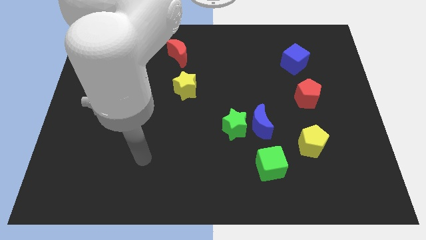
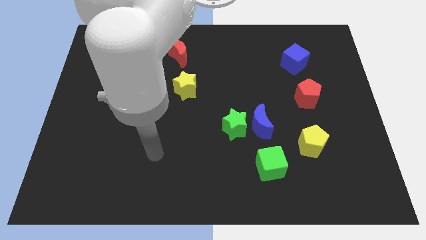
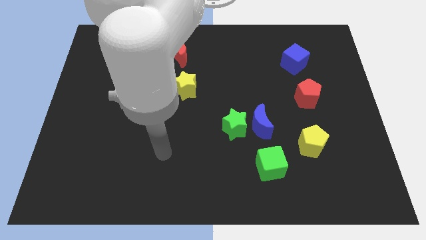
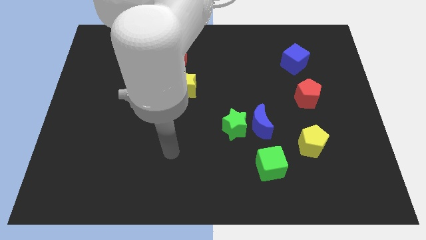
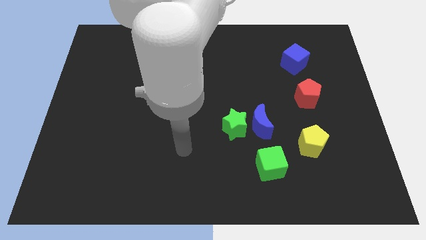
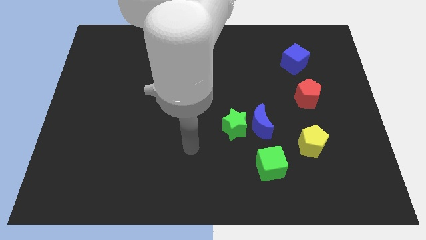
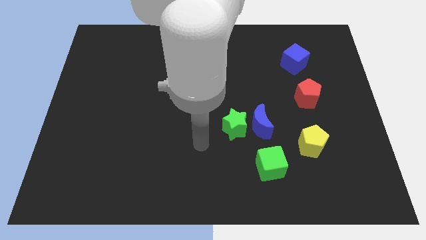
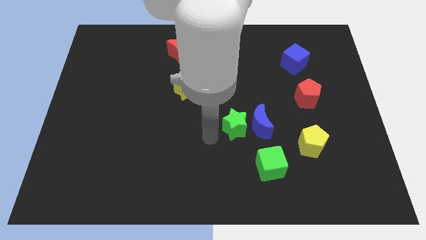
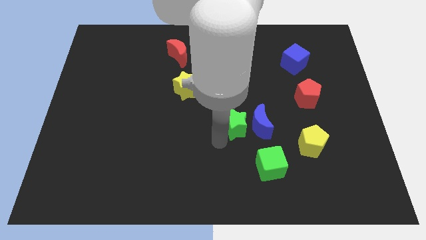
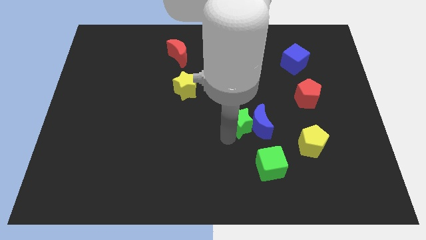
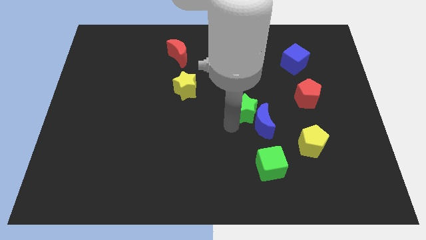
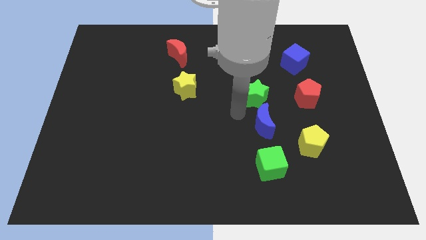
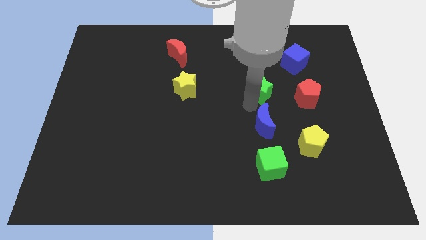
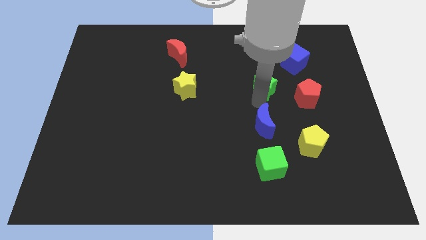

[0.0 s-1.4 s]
pull the blue moon apart from the green star

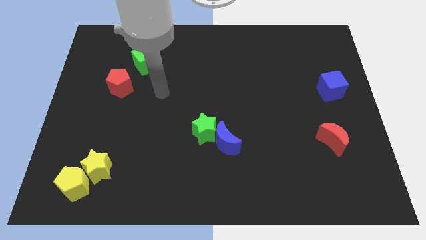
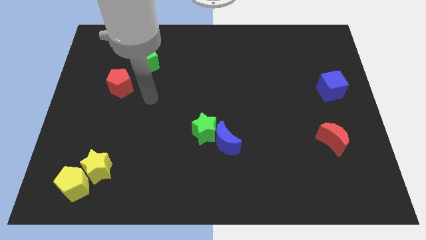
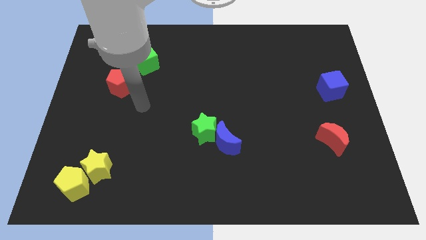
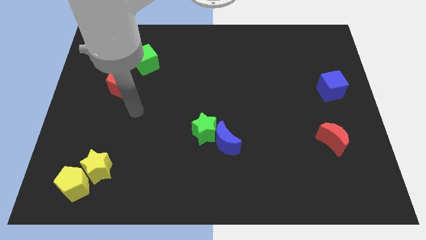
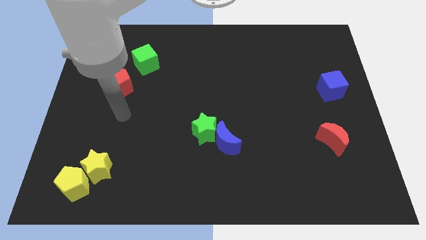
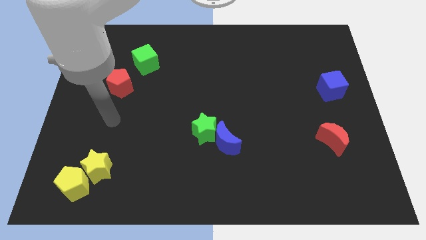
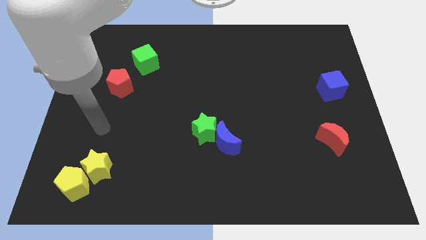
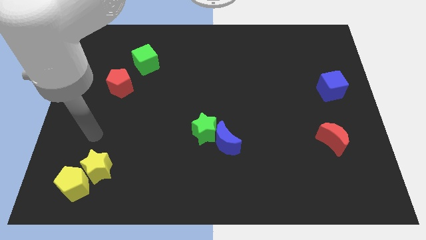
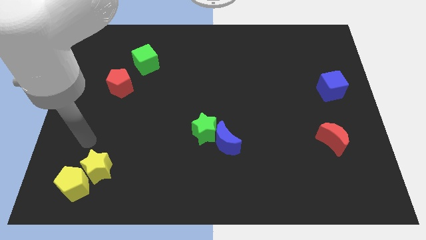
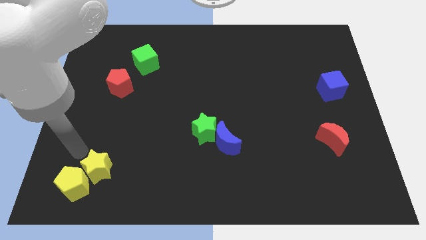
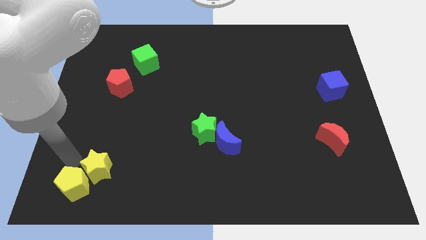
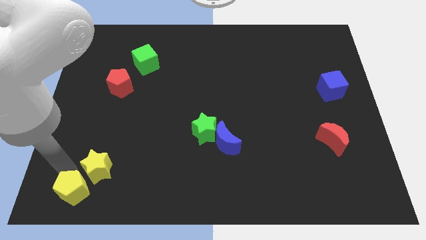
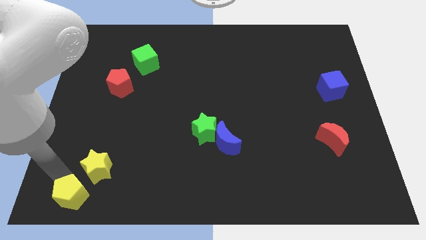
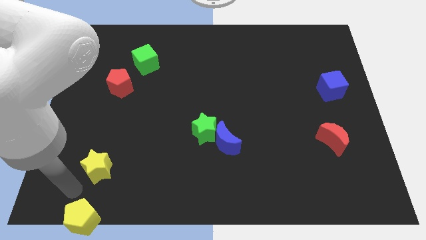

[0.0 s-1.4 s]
separate the yellow star from the yellow pentagon

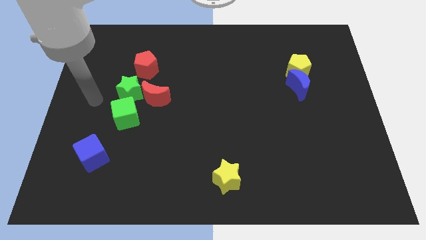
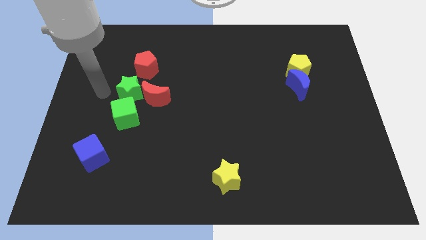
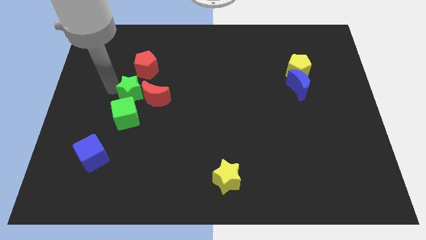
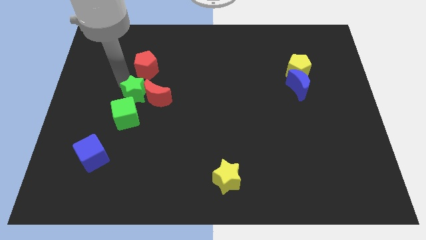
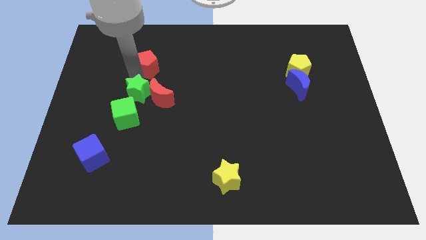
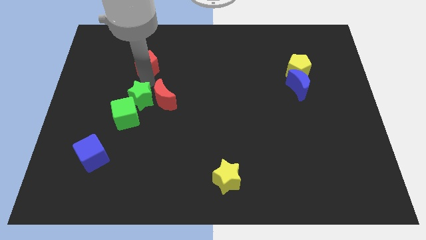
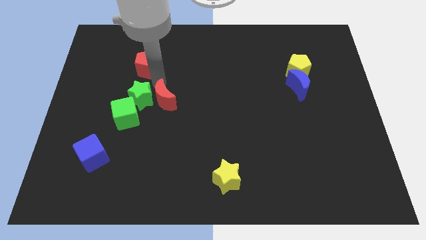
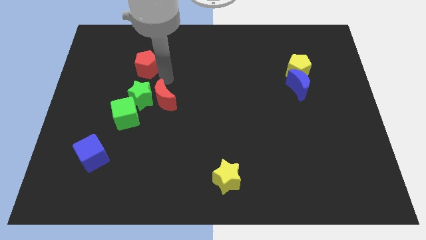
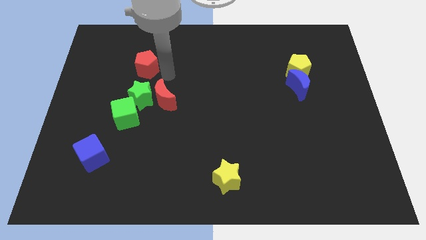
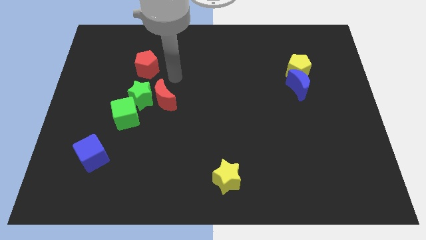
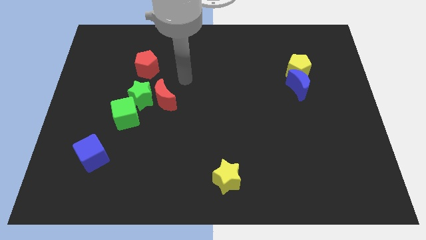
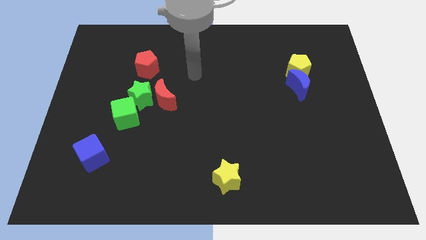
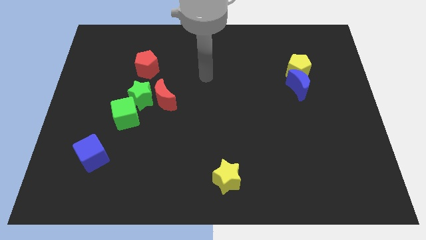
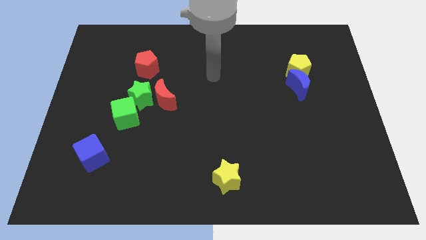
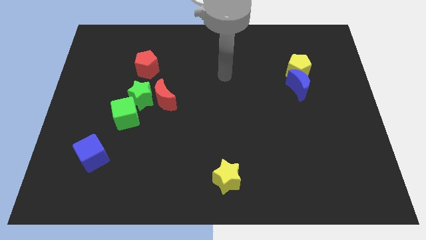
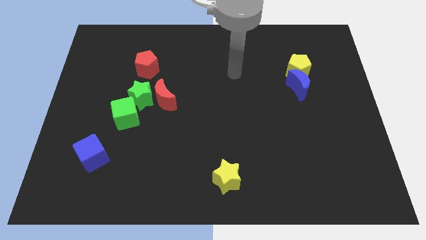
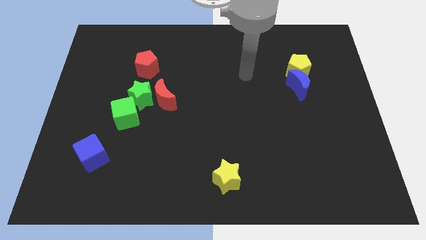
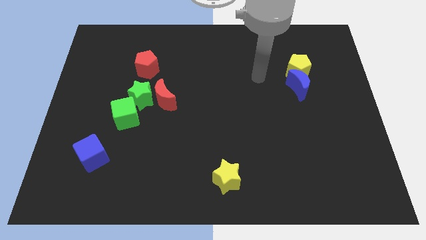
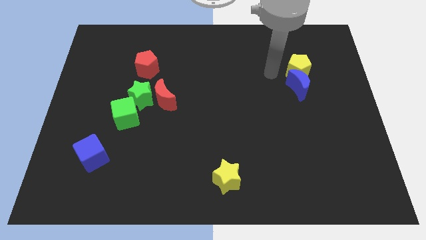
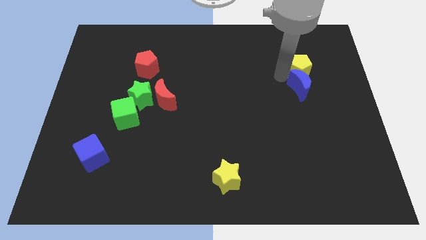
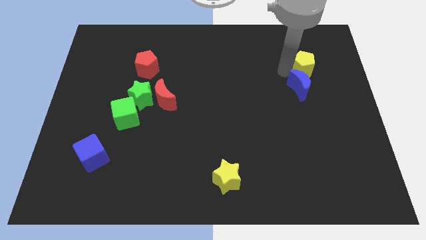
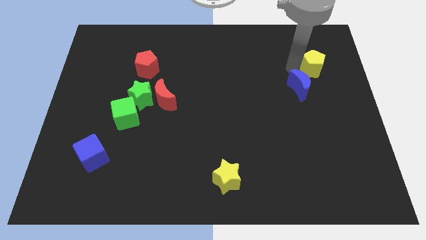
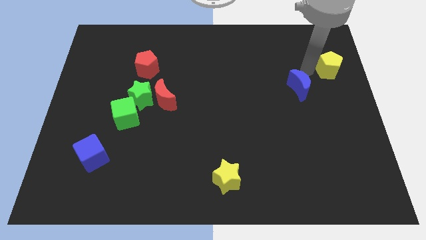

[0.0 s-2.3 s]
pull the blue moon apart from the yellow pentagon

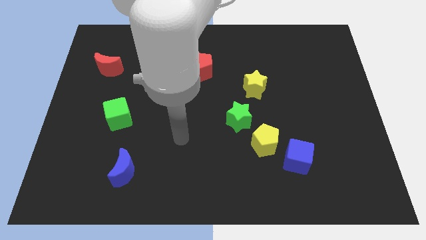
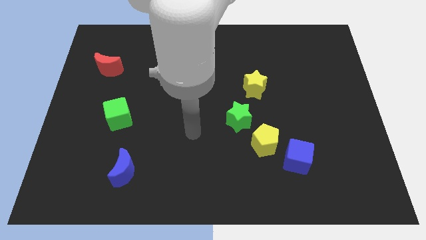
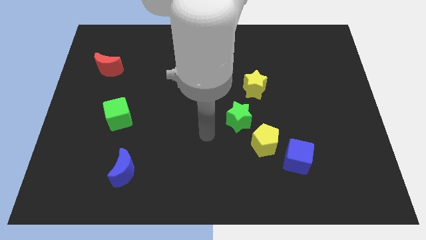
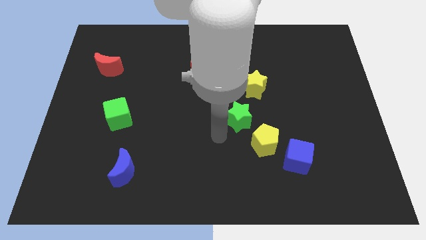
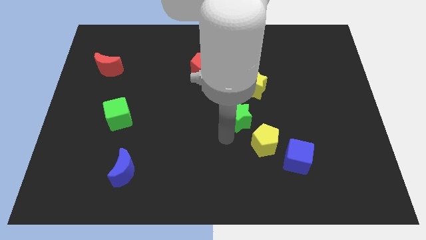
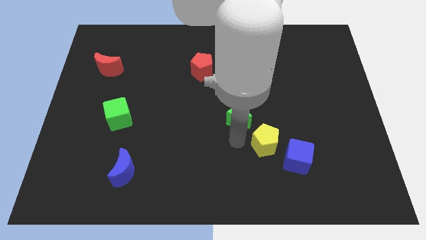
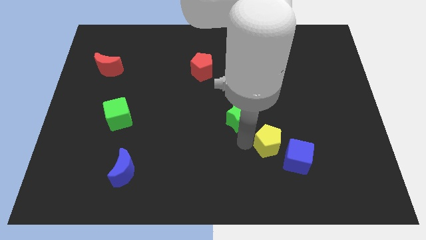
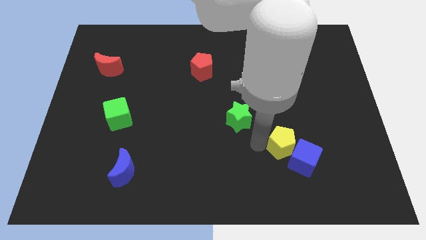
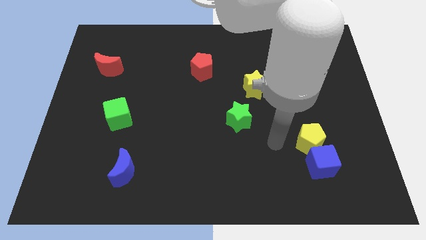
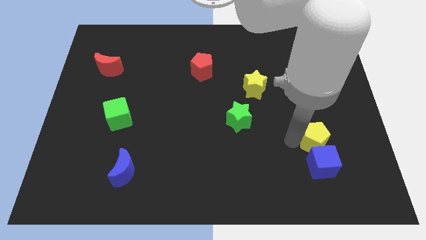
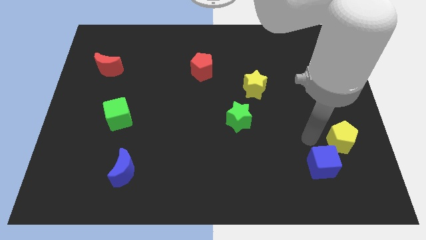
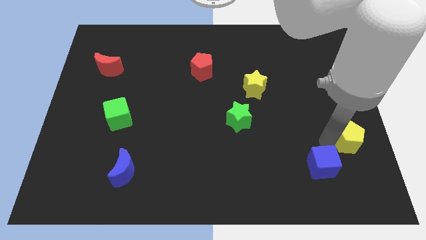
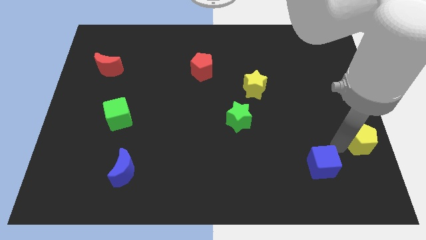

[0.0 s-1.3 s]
move the blue cube away from the yellow pentagon

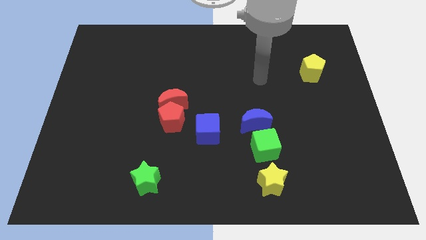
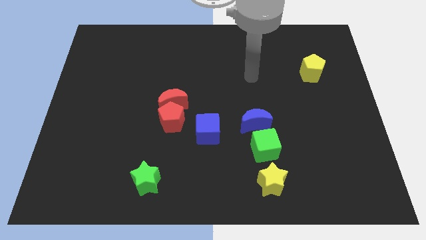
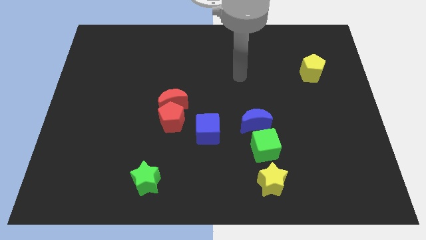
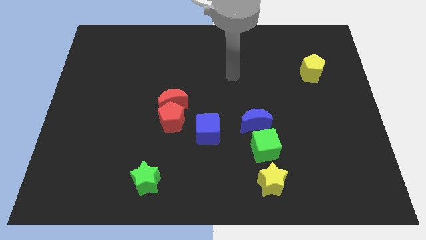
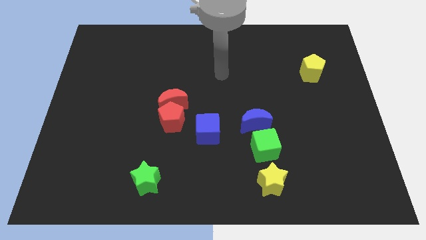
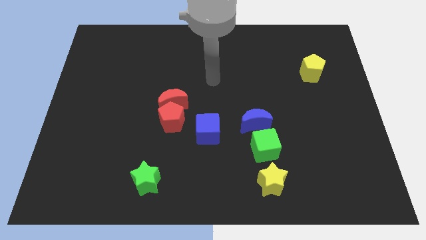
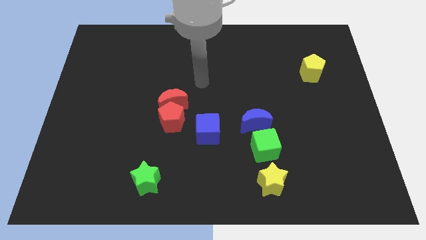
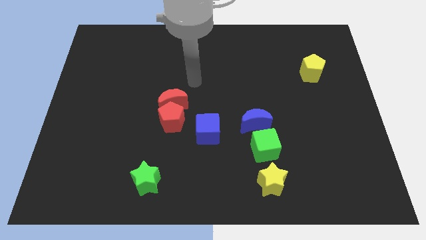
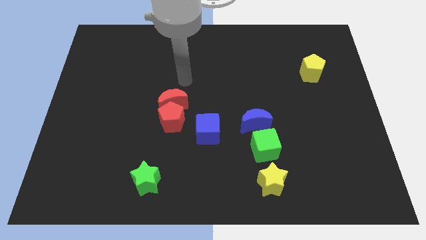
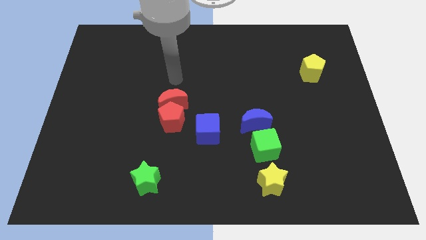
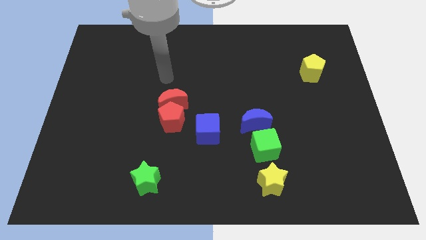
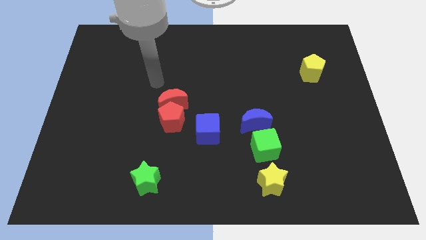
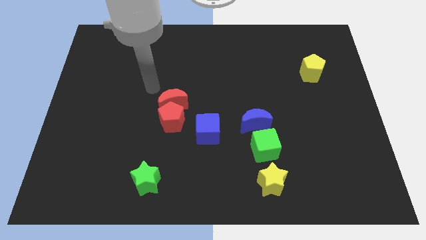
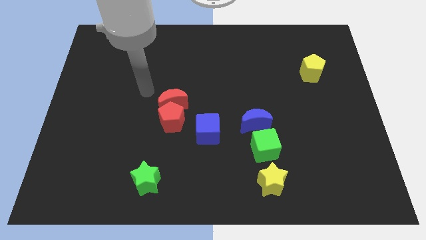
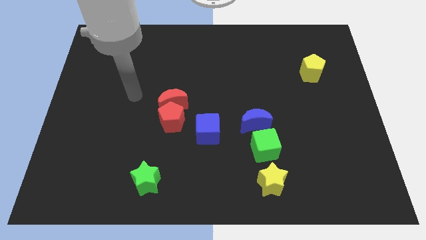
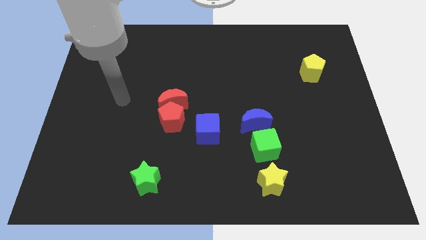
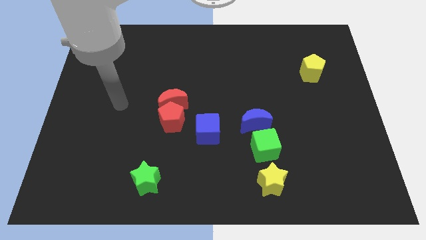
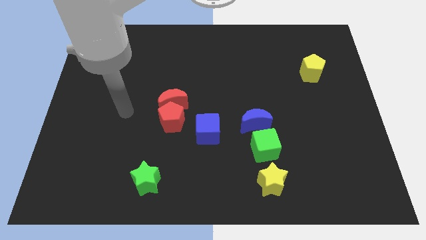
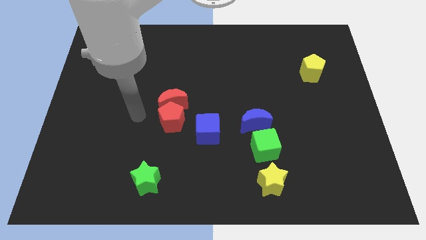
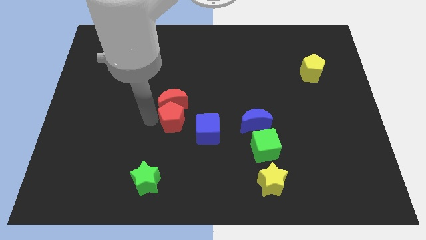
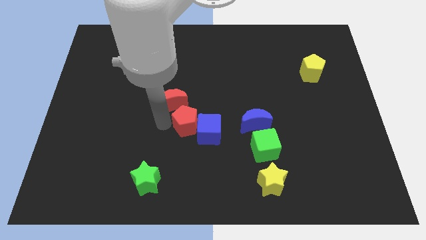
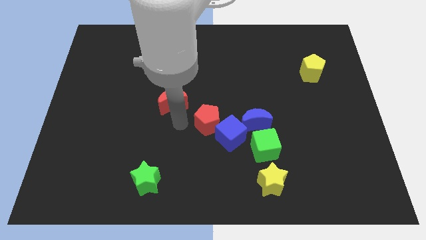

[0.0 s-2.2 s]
separate the red moon from the red pentagon

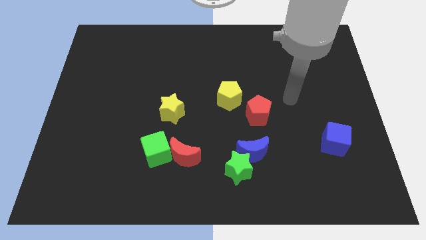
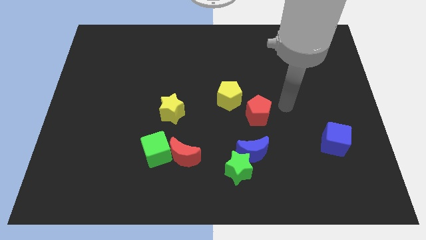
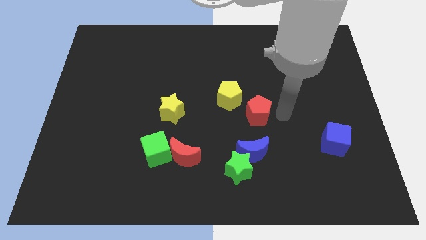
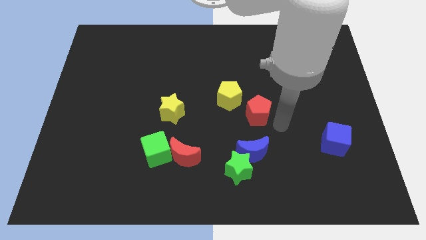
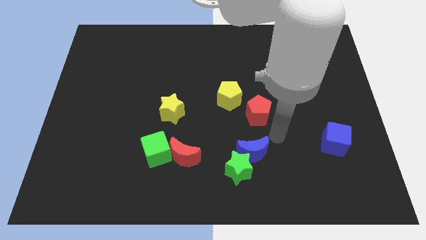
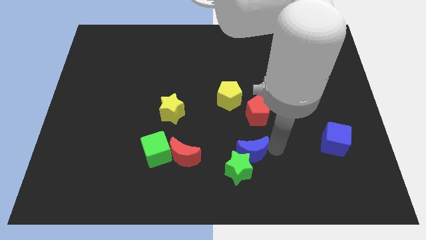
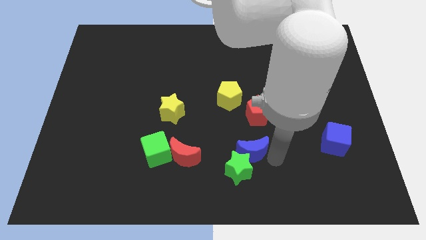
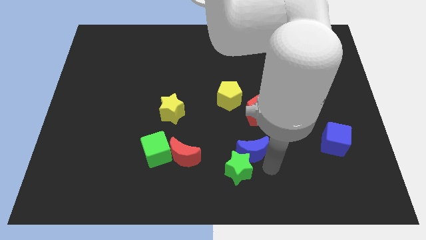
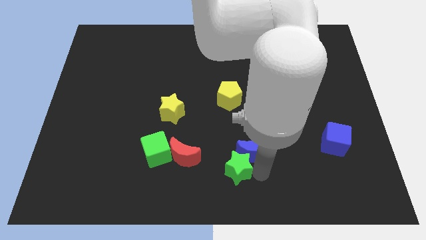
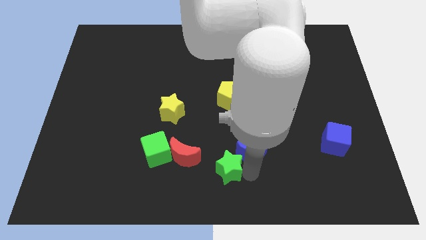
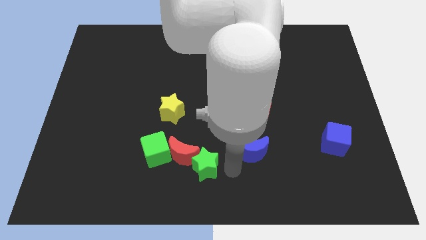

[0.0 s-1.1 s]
move the blue moon away from the green star
